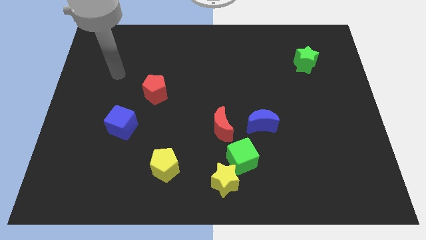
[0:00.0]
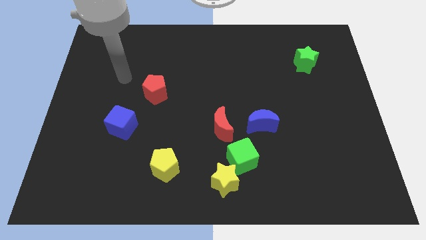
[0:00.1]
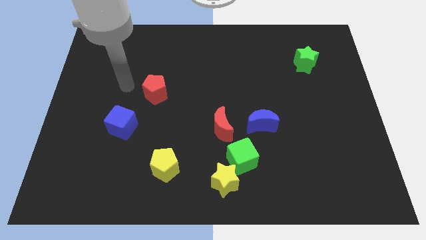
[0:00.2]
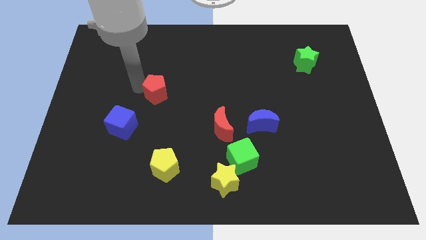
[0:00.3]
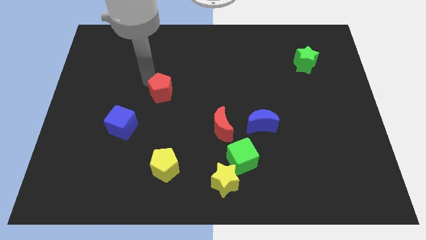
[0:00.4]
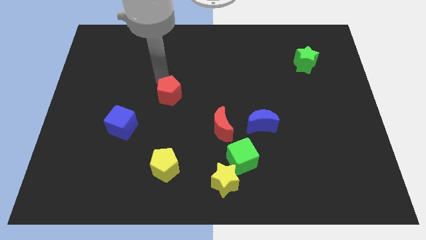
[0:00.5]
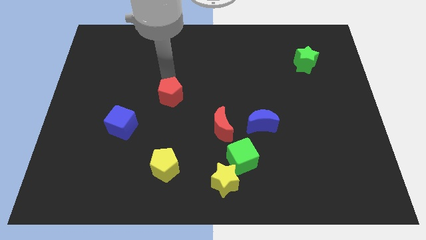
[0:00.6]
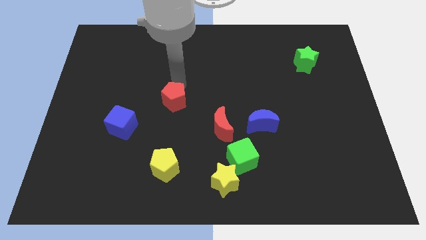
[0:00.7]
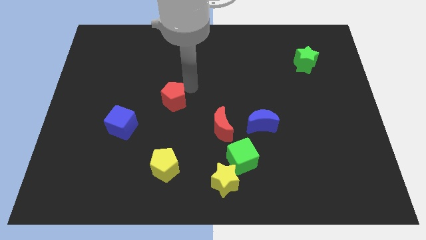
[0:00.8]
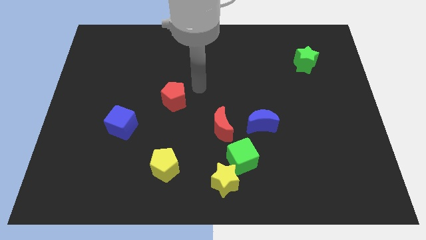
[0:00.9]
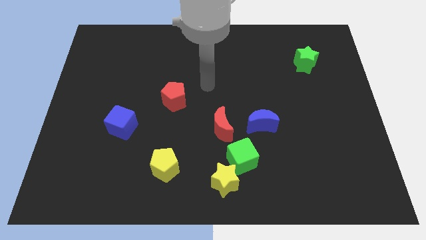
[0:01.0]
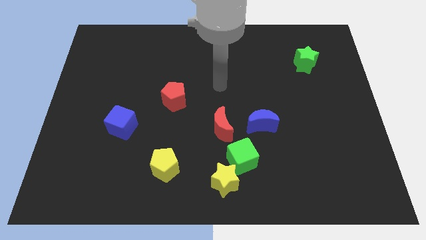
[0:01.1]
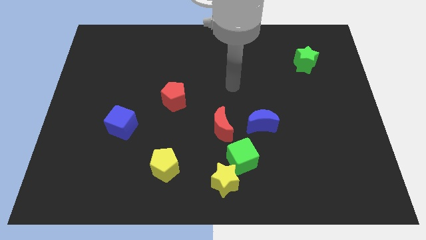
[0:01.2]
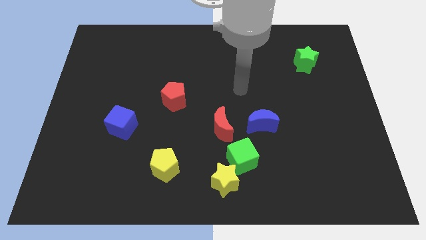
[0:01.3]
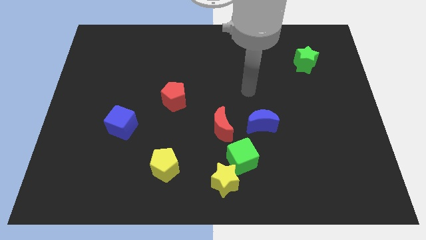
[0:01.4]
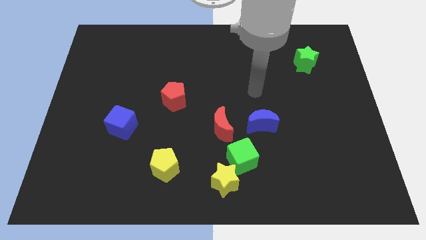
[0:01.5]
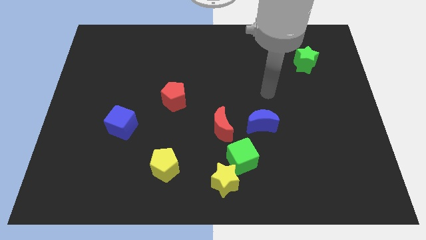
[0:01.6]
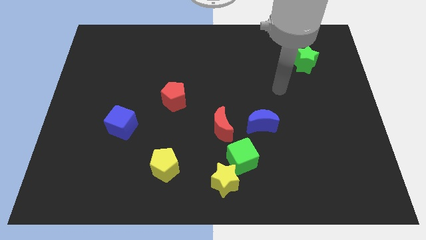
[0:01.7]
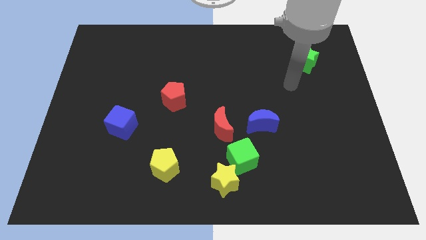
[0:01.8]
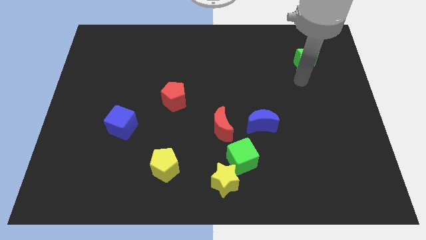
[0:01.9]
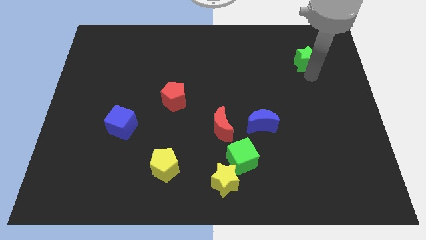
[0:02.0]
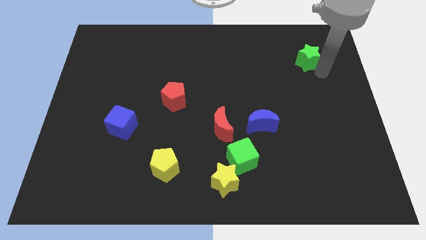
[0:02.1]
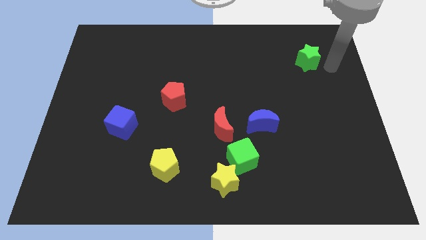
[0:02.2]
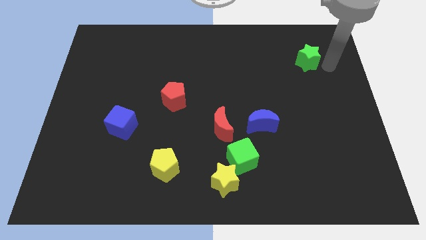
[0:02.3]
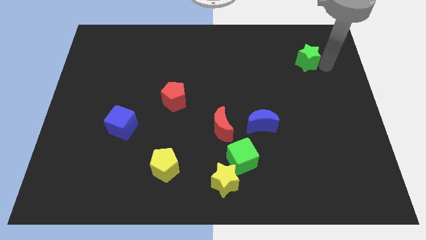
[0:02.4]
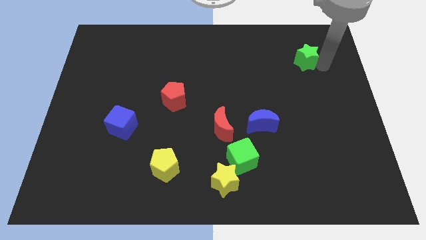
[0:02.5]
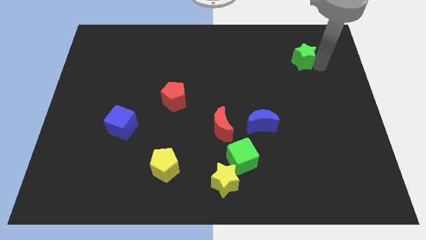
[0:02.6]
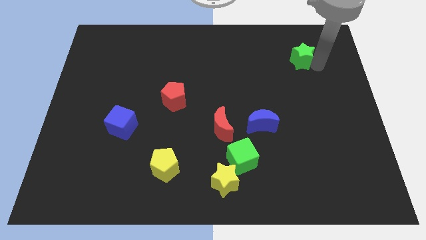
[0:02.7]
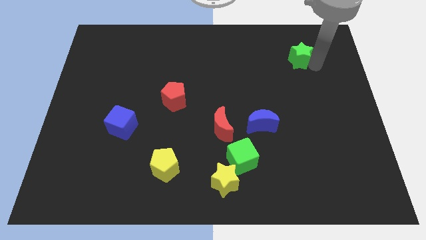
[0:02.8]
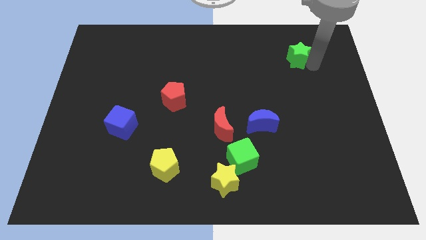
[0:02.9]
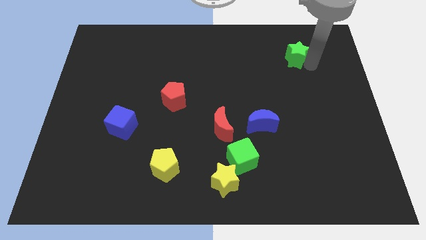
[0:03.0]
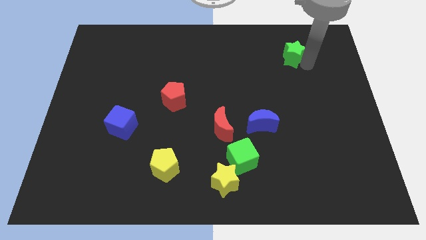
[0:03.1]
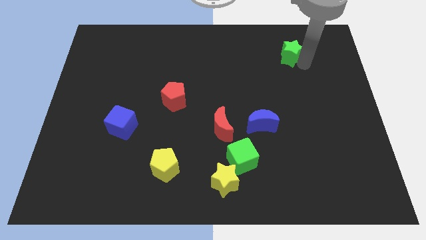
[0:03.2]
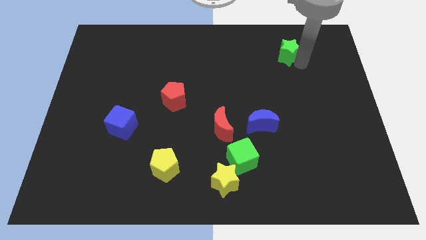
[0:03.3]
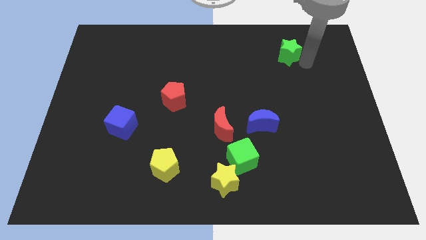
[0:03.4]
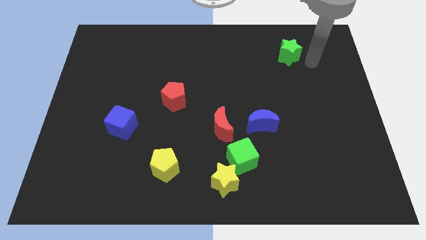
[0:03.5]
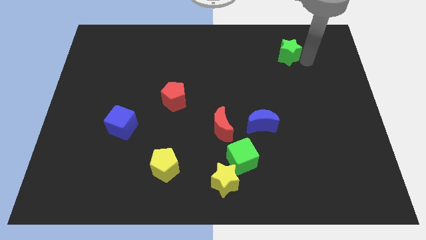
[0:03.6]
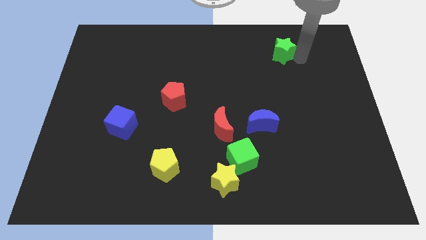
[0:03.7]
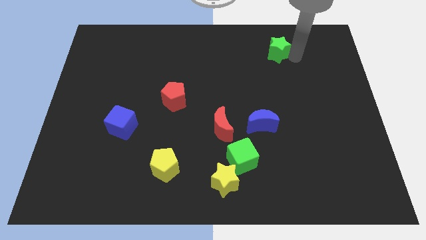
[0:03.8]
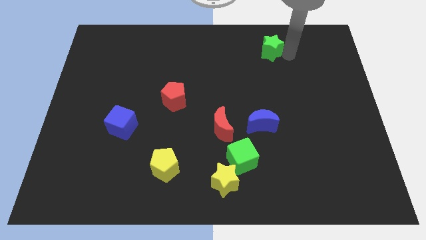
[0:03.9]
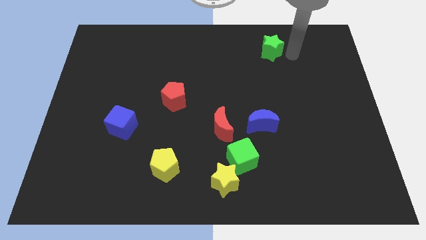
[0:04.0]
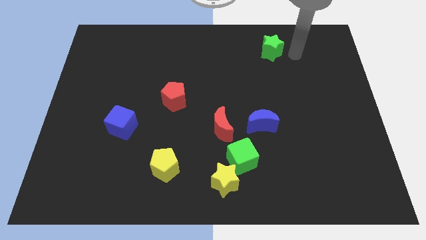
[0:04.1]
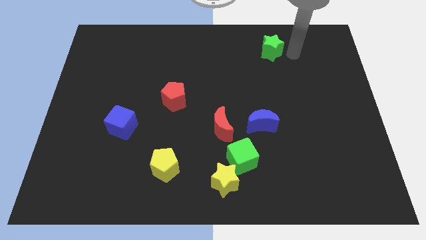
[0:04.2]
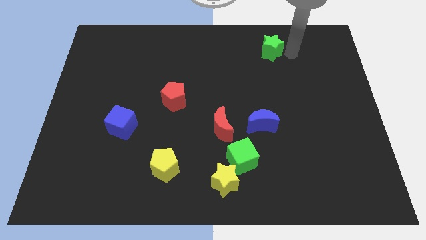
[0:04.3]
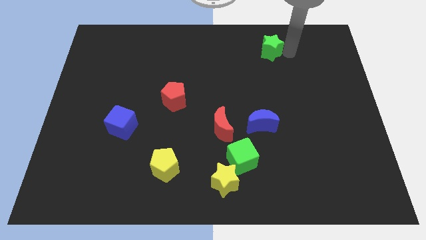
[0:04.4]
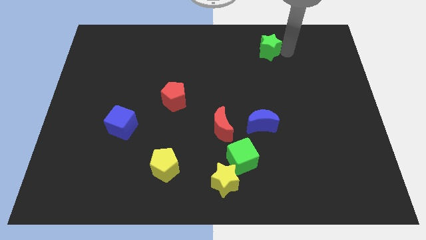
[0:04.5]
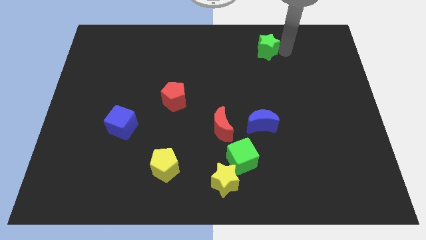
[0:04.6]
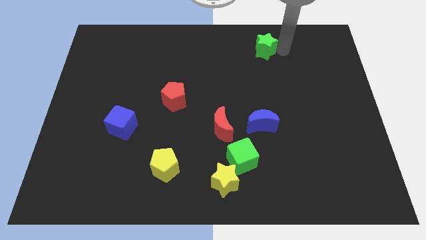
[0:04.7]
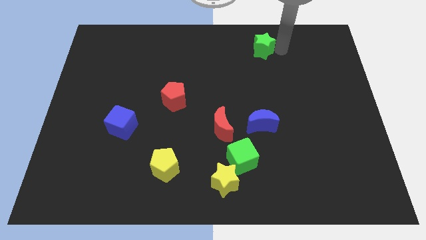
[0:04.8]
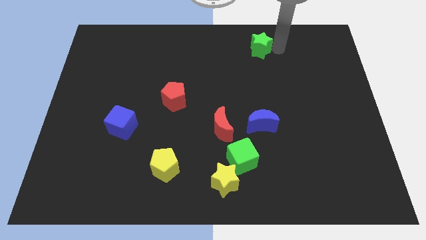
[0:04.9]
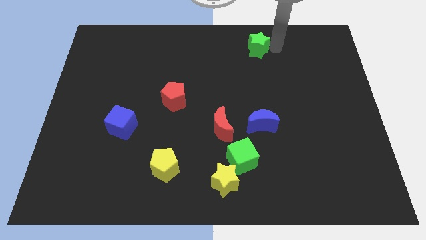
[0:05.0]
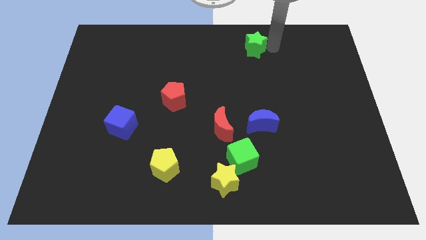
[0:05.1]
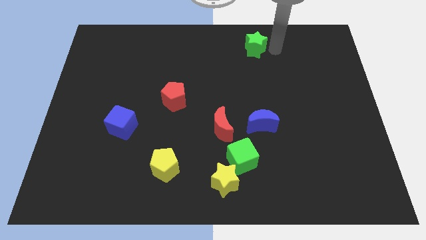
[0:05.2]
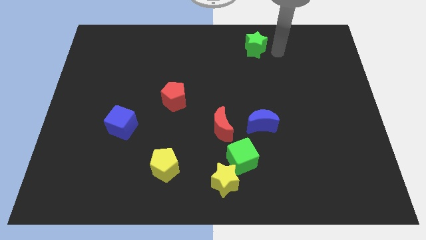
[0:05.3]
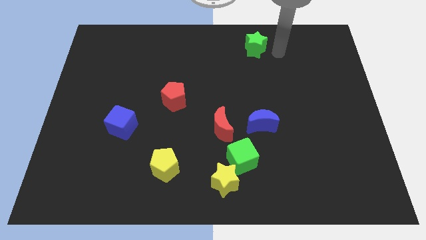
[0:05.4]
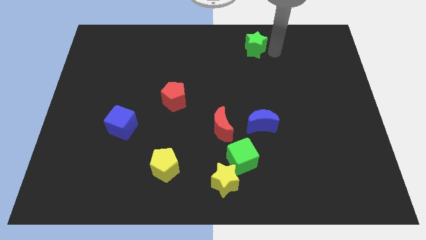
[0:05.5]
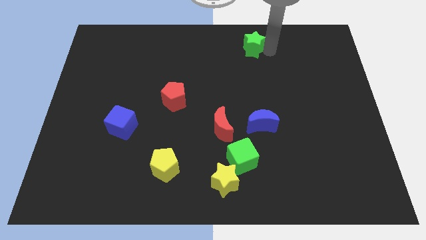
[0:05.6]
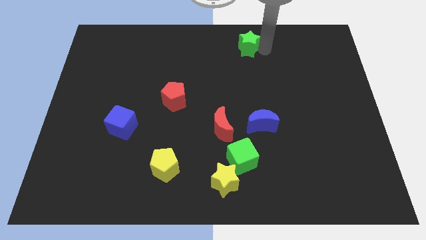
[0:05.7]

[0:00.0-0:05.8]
slide the green star to the top side

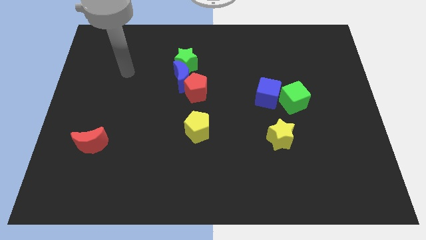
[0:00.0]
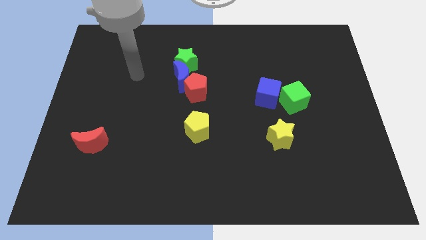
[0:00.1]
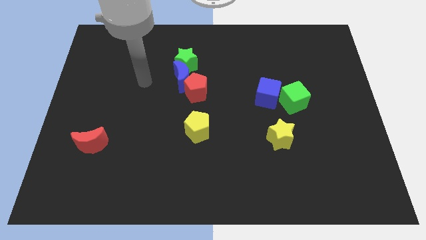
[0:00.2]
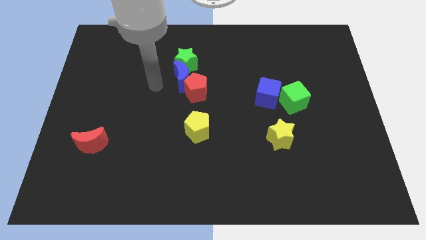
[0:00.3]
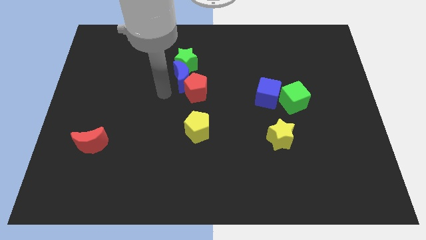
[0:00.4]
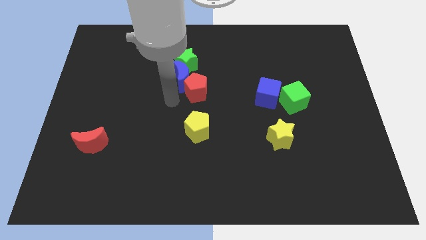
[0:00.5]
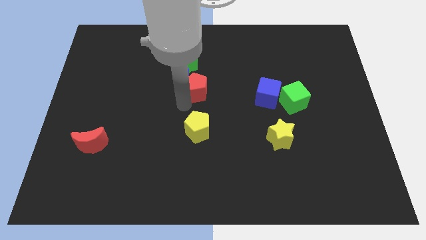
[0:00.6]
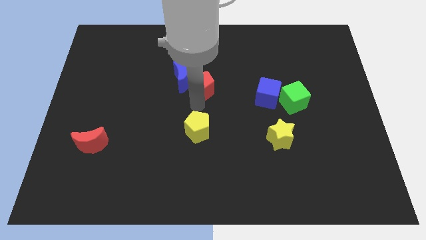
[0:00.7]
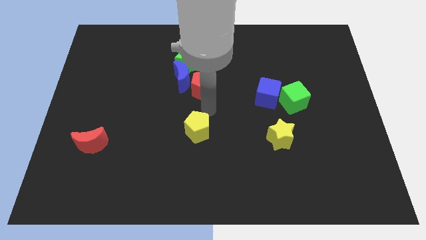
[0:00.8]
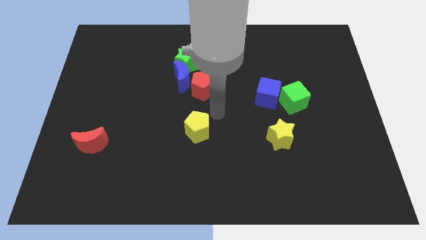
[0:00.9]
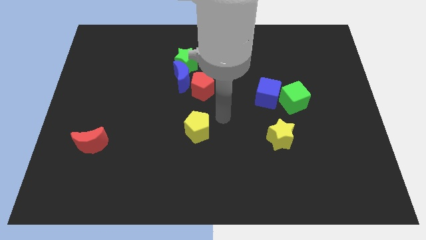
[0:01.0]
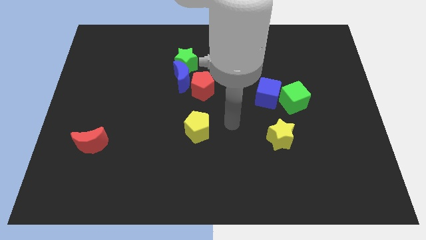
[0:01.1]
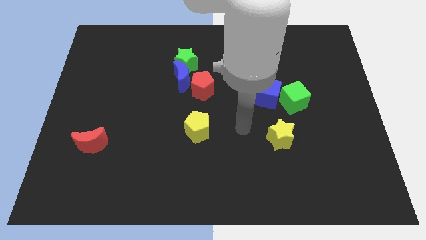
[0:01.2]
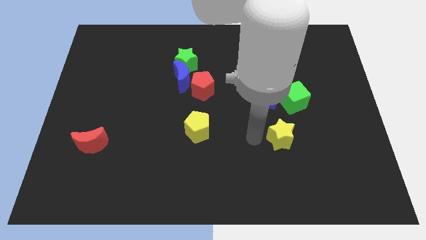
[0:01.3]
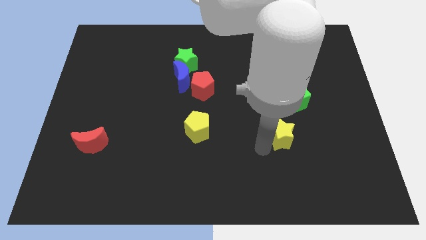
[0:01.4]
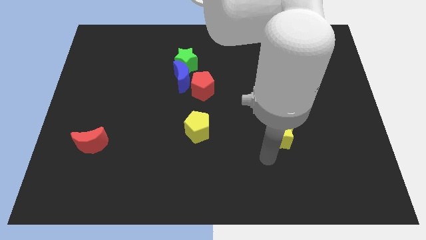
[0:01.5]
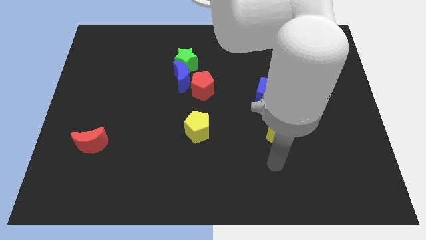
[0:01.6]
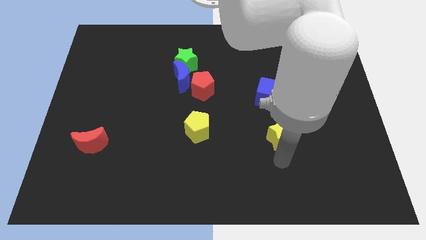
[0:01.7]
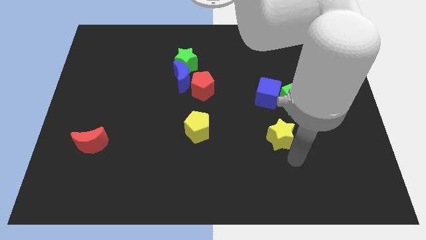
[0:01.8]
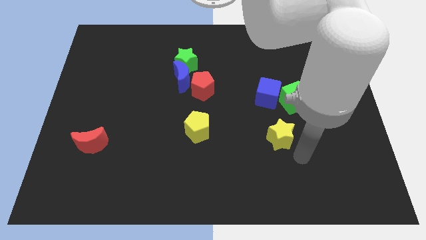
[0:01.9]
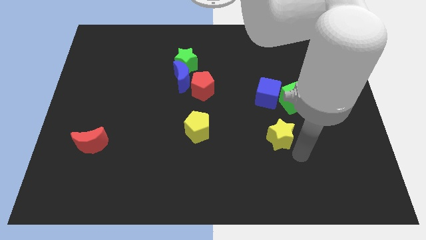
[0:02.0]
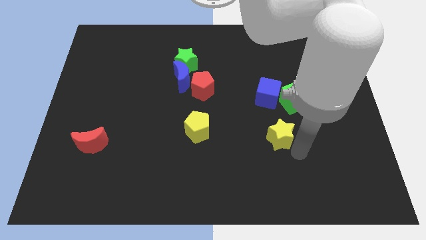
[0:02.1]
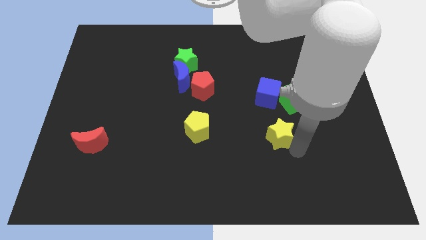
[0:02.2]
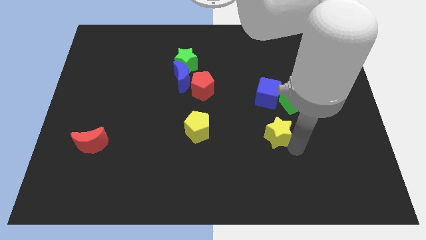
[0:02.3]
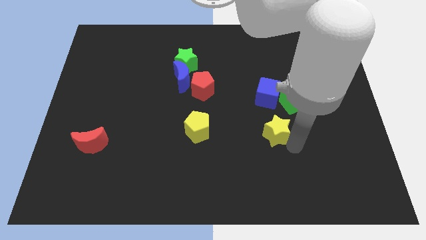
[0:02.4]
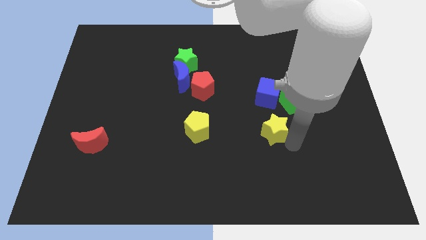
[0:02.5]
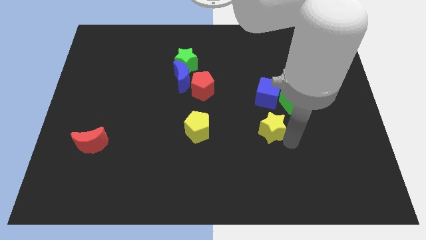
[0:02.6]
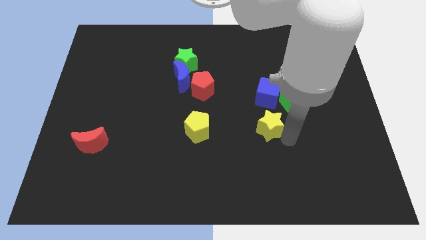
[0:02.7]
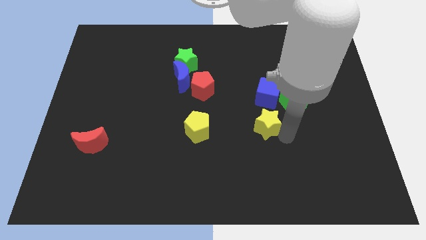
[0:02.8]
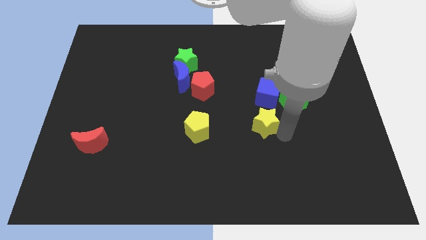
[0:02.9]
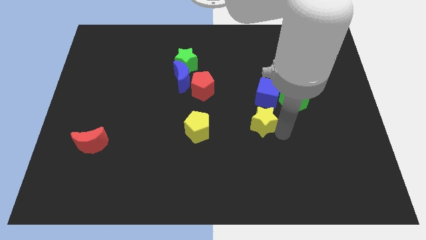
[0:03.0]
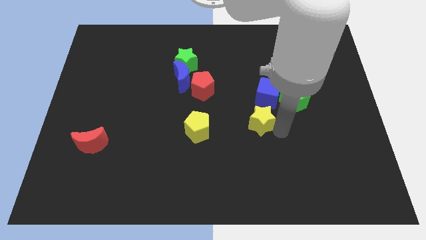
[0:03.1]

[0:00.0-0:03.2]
slide the yellow star to the center of the board
